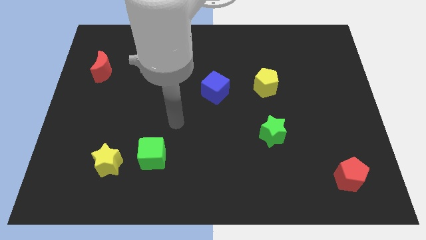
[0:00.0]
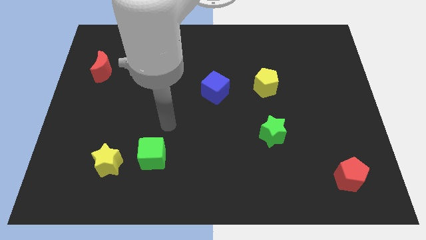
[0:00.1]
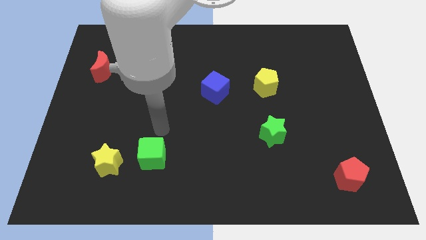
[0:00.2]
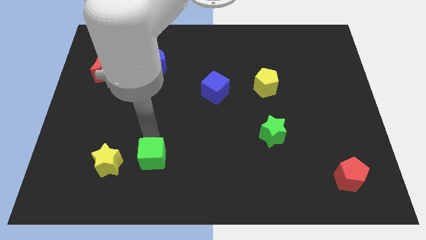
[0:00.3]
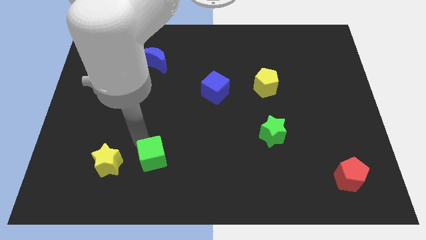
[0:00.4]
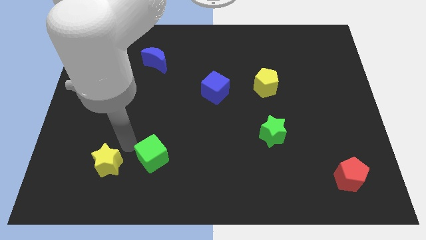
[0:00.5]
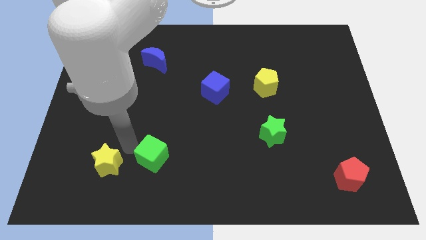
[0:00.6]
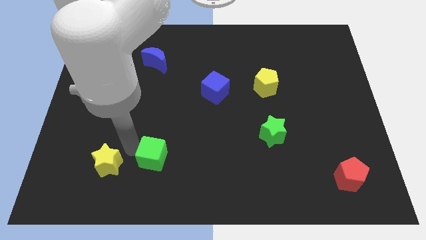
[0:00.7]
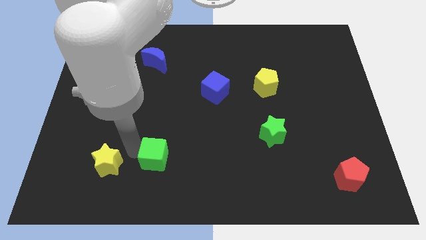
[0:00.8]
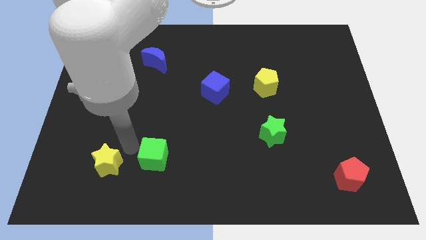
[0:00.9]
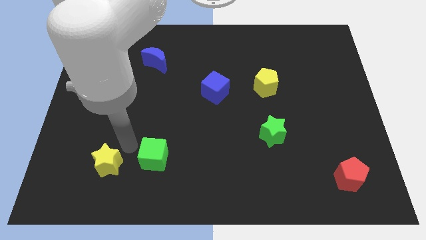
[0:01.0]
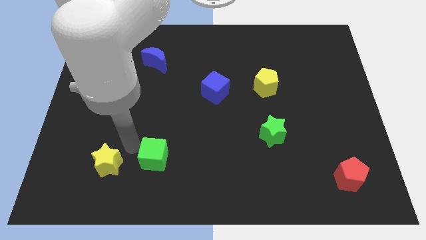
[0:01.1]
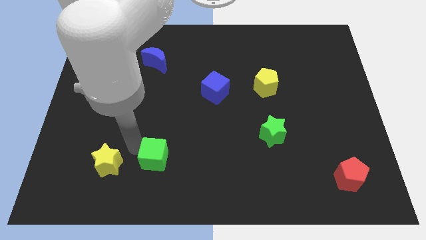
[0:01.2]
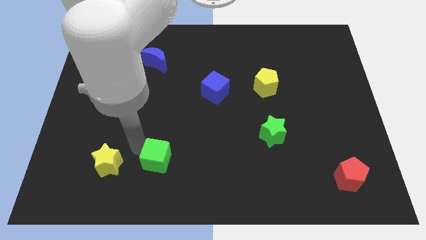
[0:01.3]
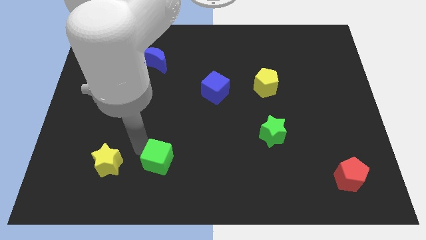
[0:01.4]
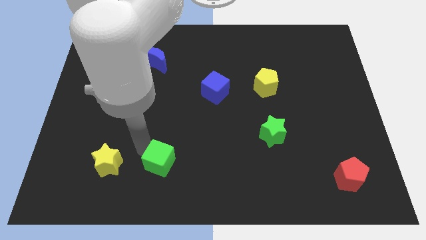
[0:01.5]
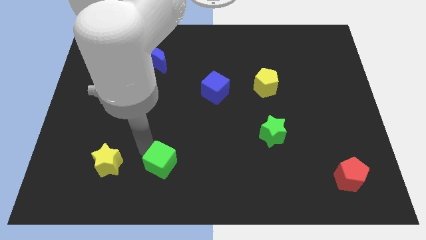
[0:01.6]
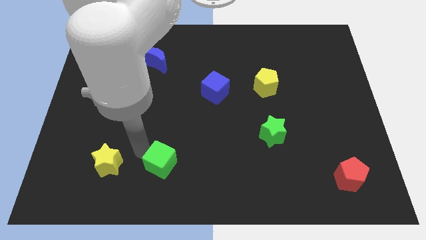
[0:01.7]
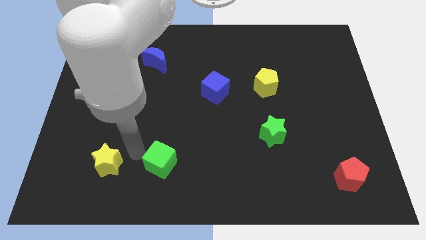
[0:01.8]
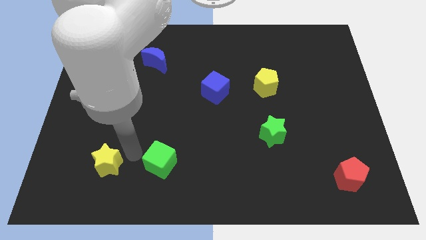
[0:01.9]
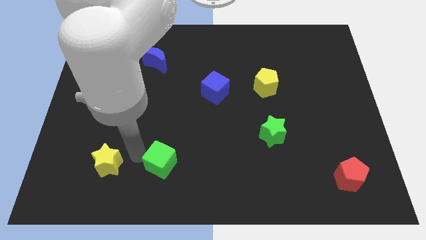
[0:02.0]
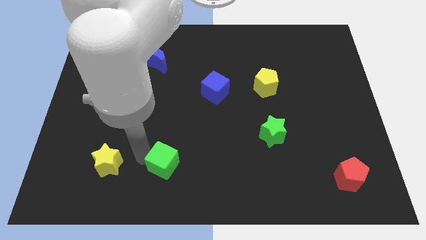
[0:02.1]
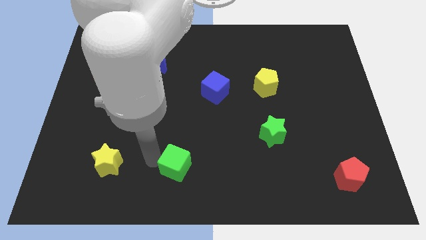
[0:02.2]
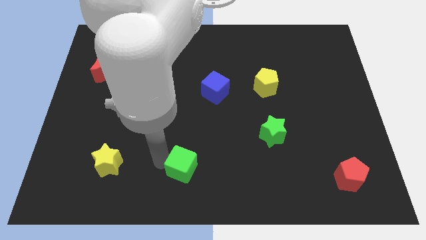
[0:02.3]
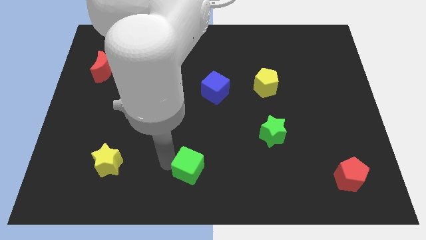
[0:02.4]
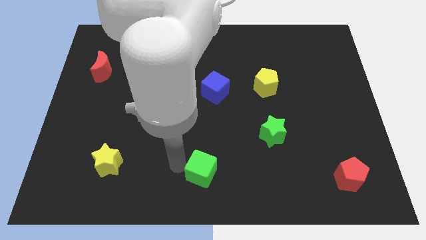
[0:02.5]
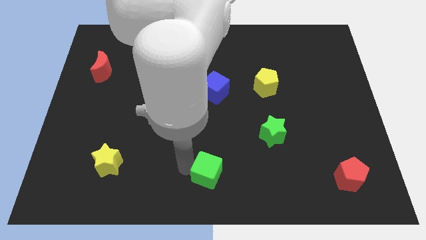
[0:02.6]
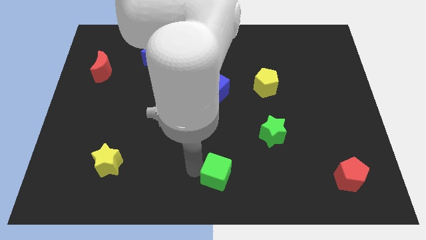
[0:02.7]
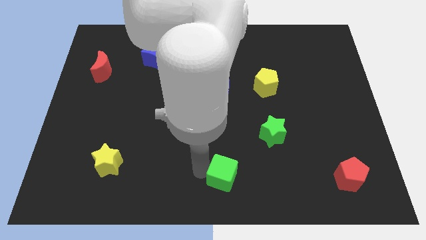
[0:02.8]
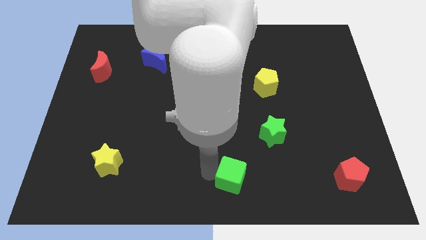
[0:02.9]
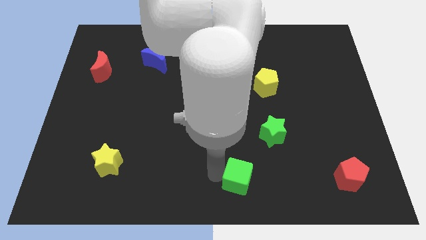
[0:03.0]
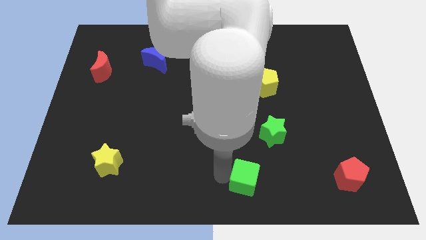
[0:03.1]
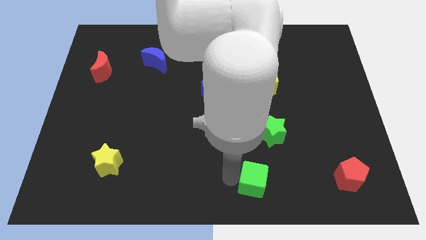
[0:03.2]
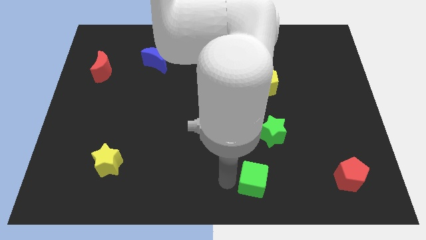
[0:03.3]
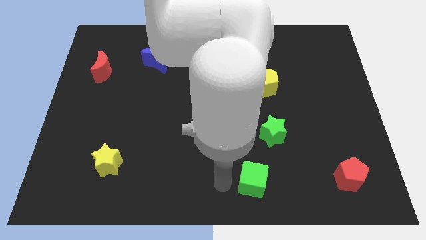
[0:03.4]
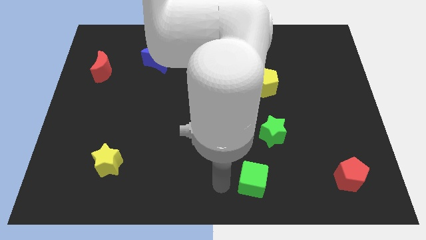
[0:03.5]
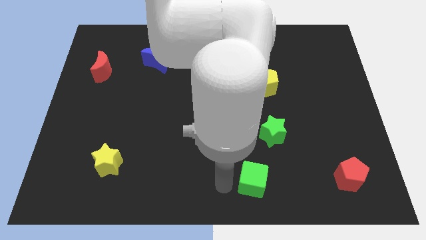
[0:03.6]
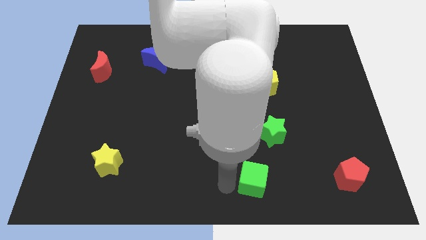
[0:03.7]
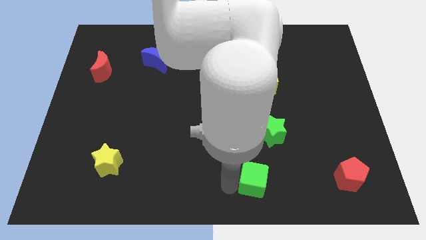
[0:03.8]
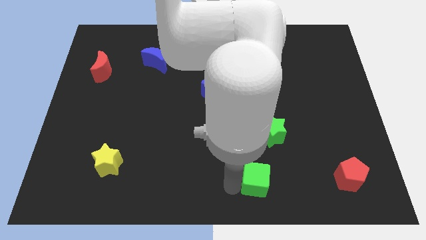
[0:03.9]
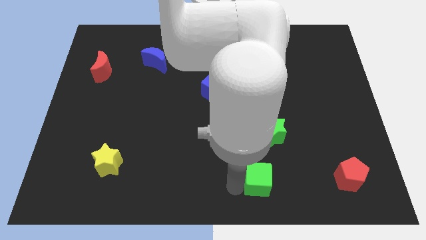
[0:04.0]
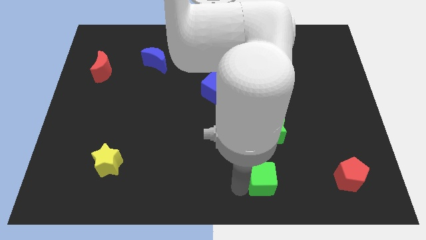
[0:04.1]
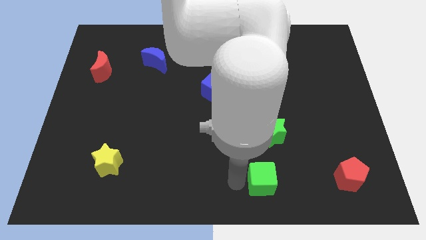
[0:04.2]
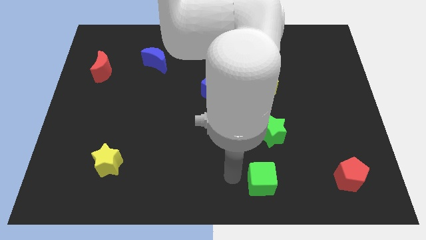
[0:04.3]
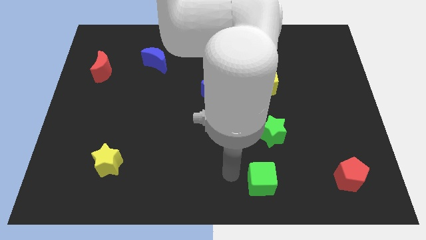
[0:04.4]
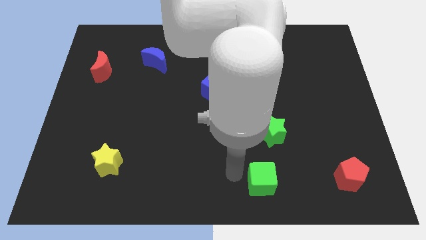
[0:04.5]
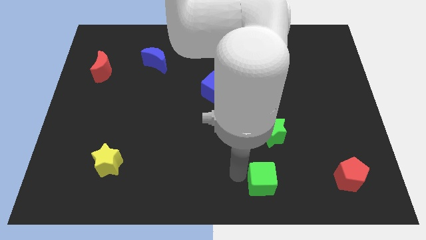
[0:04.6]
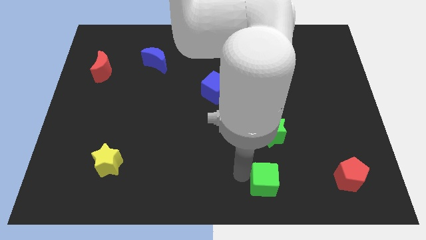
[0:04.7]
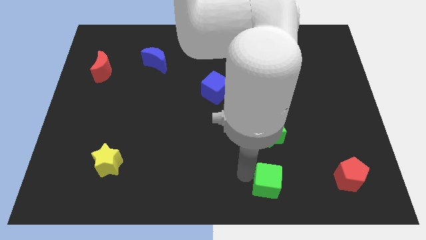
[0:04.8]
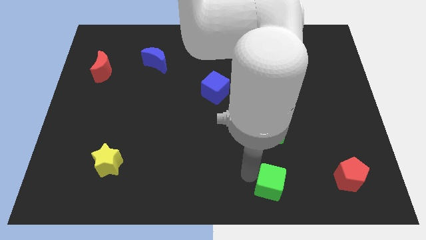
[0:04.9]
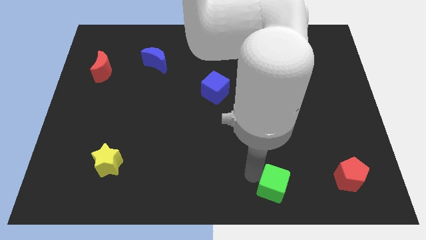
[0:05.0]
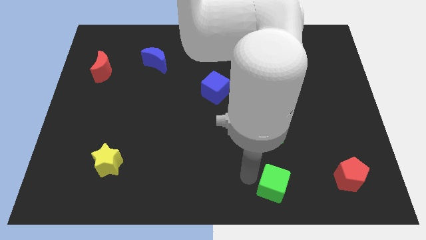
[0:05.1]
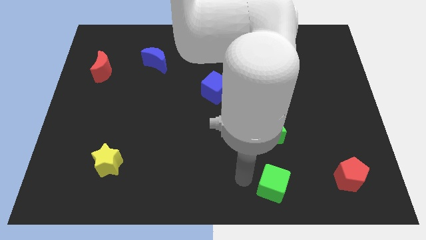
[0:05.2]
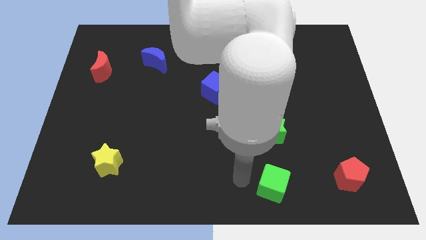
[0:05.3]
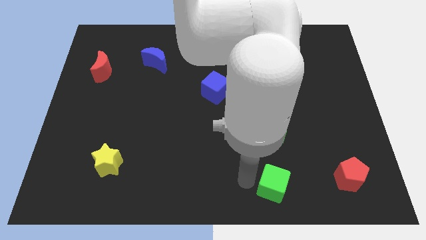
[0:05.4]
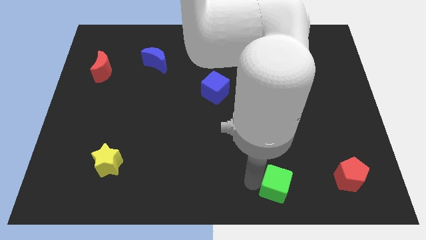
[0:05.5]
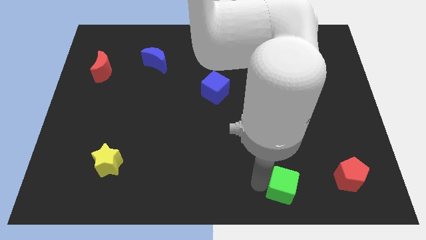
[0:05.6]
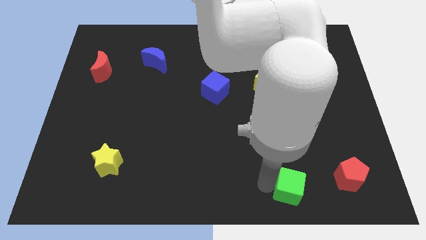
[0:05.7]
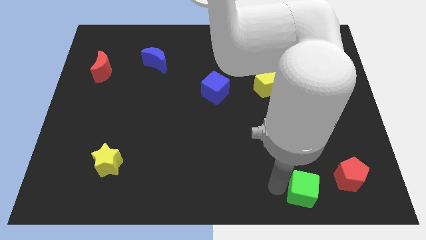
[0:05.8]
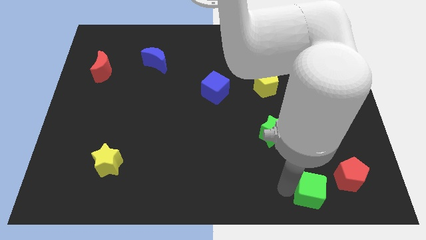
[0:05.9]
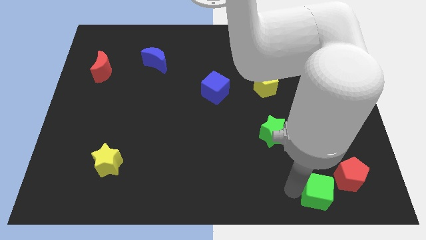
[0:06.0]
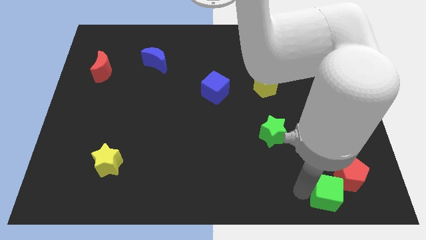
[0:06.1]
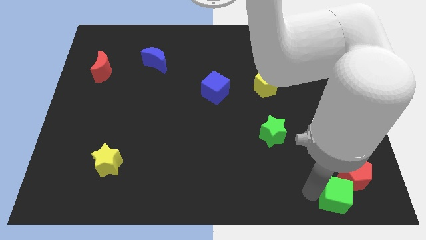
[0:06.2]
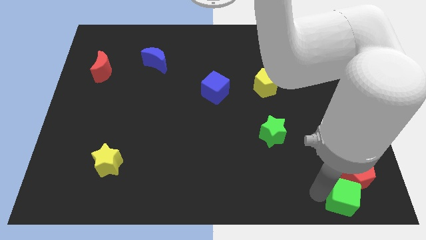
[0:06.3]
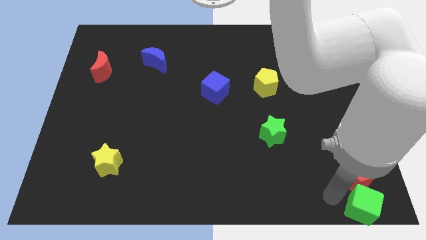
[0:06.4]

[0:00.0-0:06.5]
put the green cube to the bottom right
